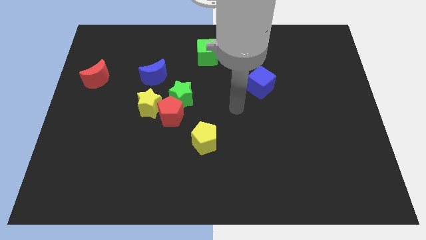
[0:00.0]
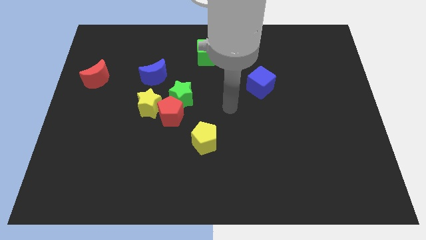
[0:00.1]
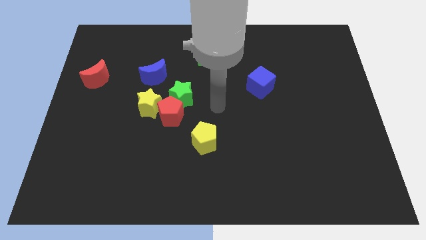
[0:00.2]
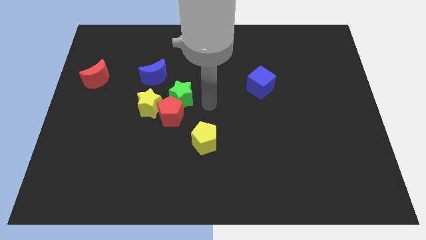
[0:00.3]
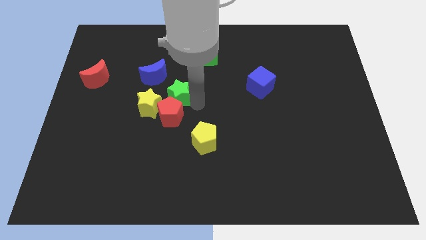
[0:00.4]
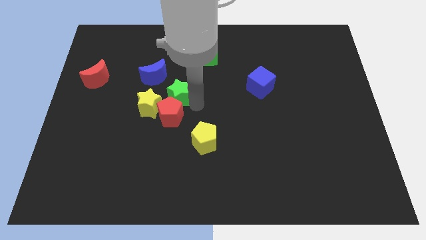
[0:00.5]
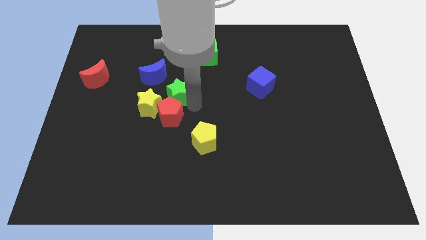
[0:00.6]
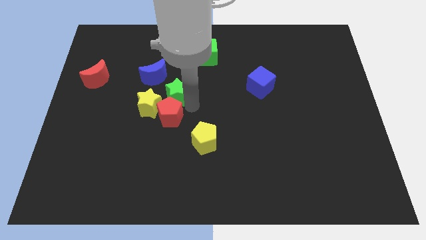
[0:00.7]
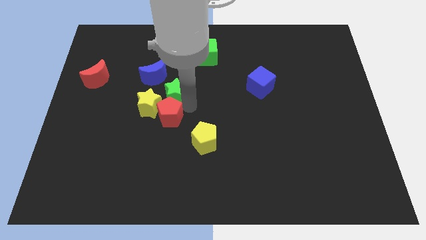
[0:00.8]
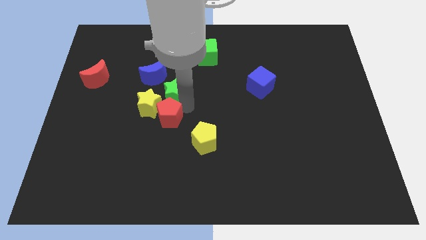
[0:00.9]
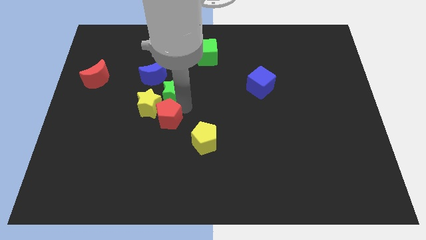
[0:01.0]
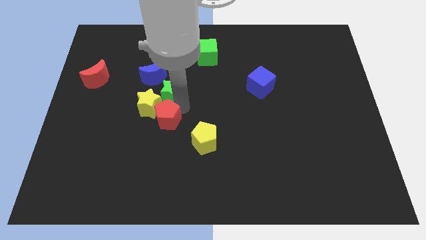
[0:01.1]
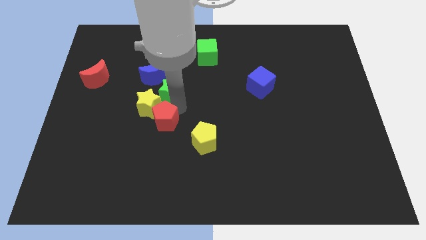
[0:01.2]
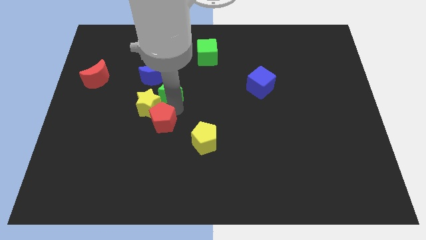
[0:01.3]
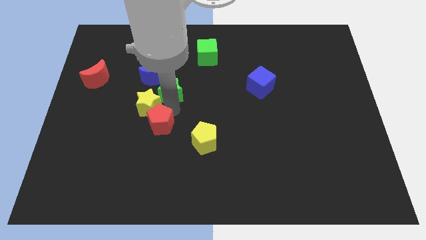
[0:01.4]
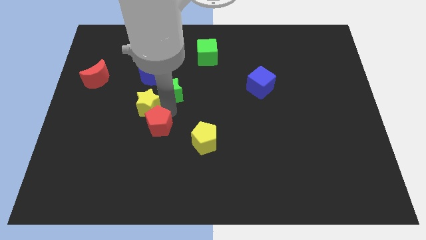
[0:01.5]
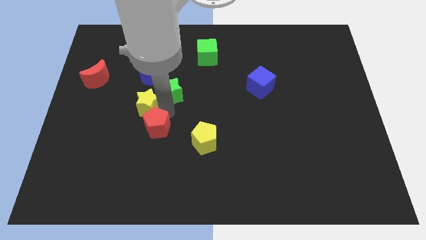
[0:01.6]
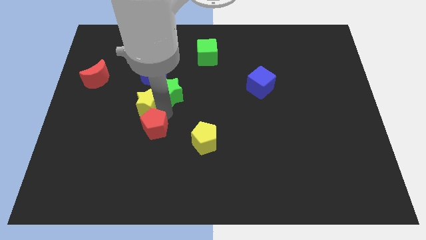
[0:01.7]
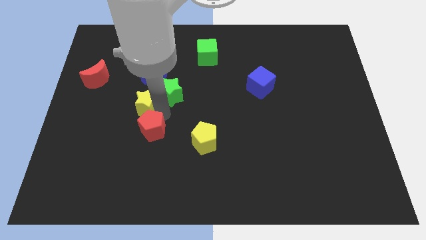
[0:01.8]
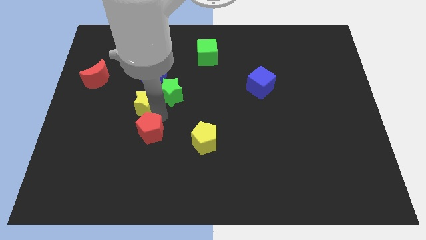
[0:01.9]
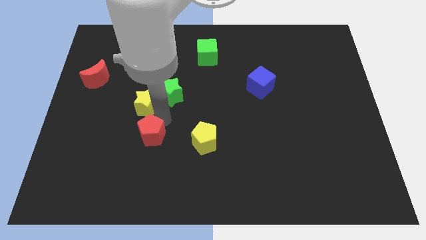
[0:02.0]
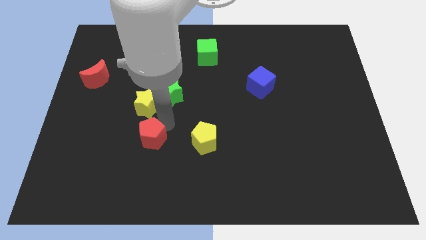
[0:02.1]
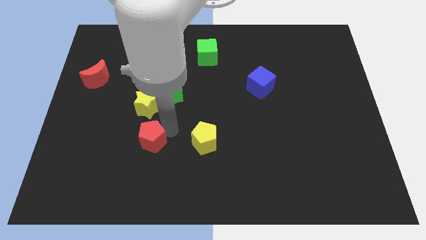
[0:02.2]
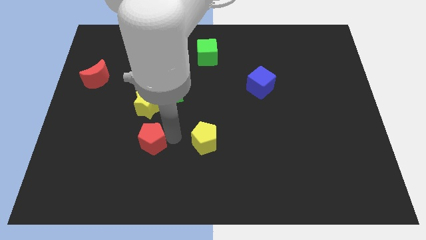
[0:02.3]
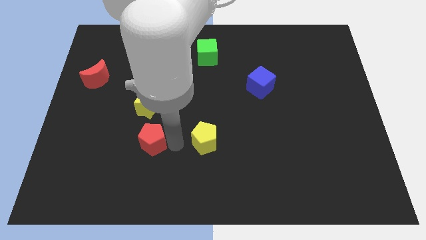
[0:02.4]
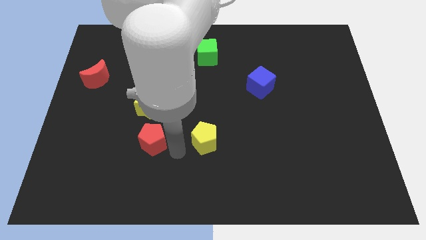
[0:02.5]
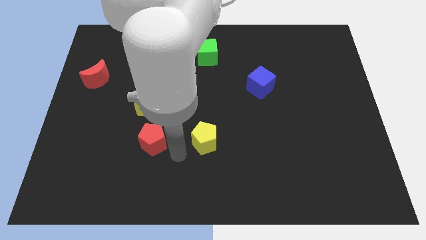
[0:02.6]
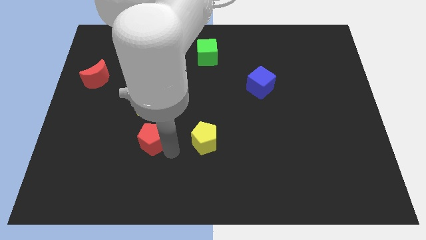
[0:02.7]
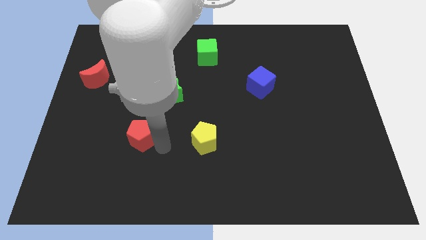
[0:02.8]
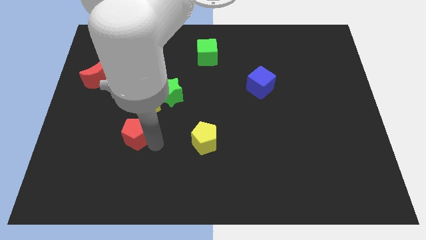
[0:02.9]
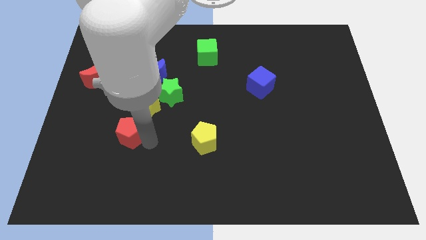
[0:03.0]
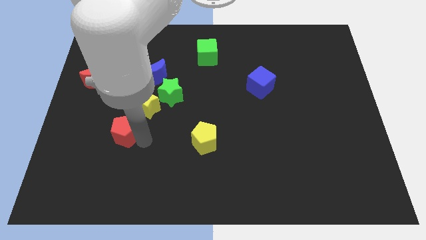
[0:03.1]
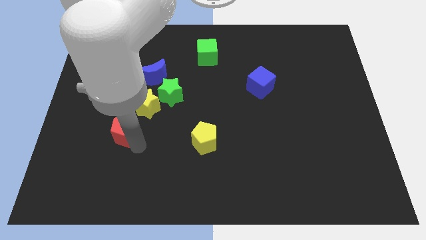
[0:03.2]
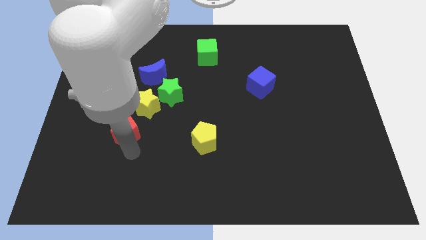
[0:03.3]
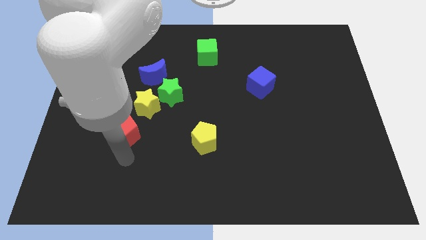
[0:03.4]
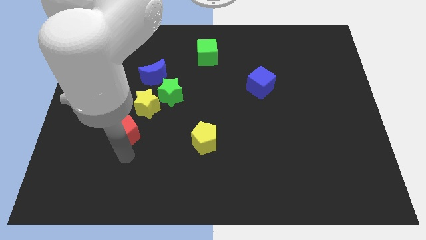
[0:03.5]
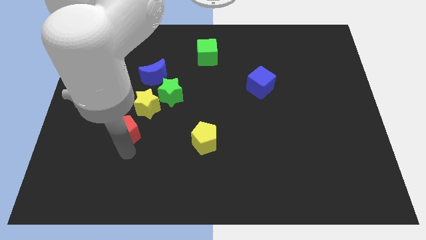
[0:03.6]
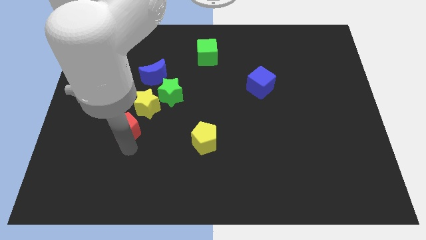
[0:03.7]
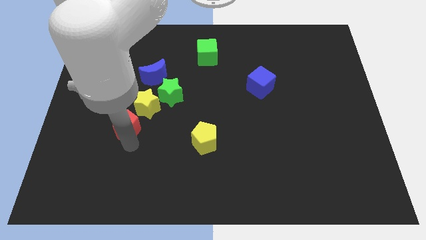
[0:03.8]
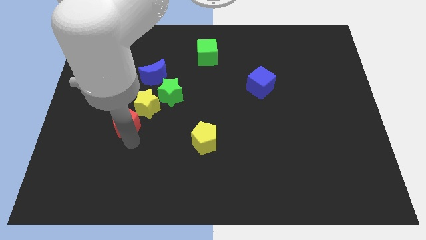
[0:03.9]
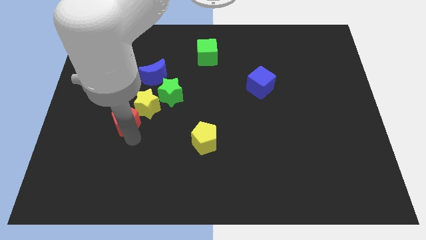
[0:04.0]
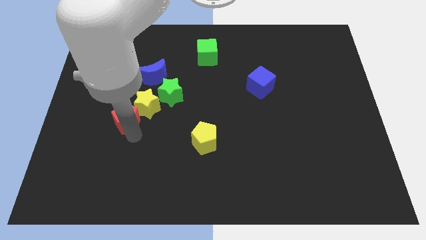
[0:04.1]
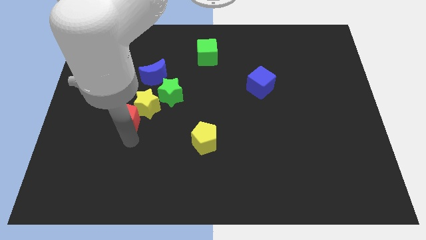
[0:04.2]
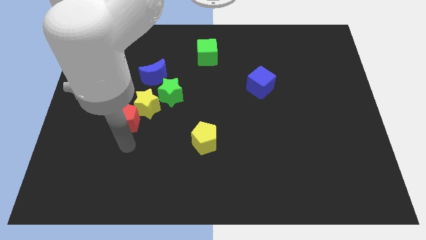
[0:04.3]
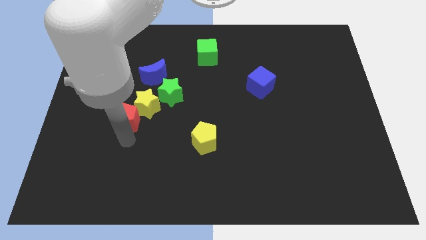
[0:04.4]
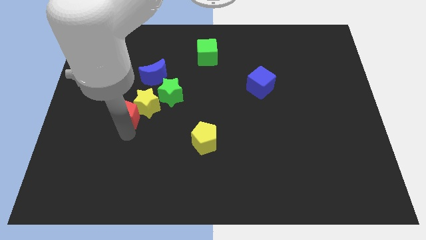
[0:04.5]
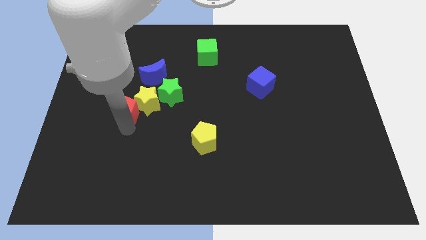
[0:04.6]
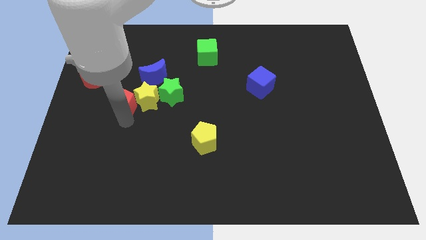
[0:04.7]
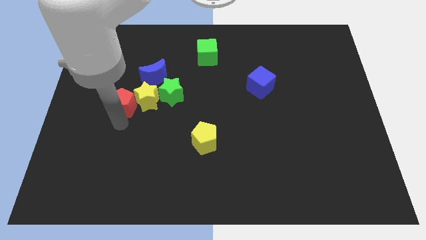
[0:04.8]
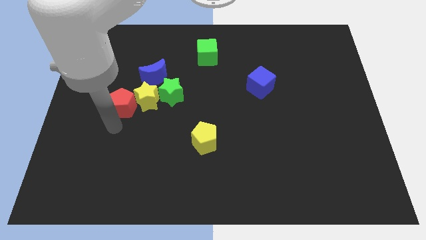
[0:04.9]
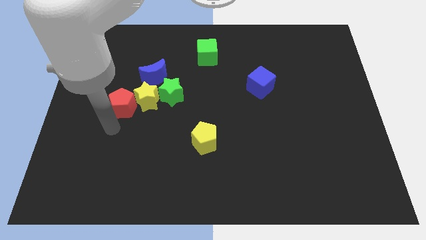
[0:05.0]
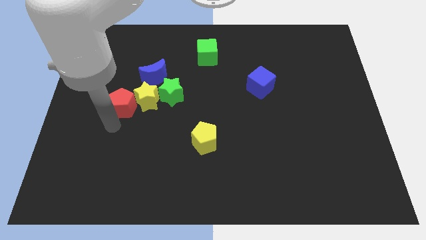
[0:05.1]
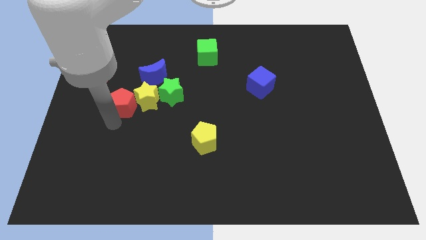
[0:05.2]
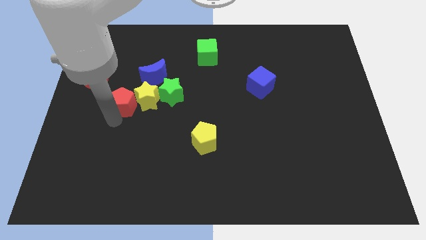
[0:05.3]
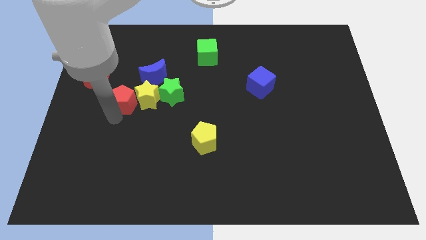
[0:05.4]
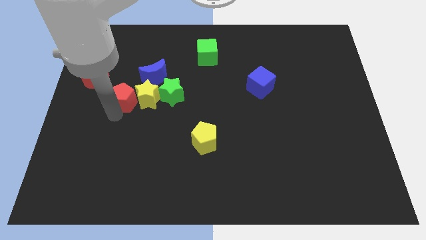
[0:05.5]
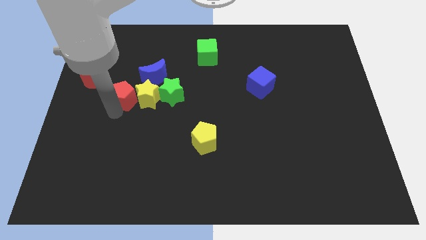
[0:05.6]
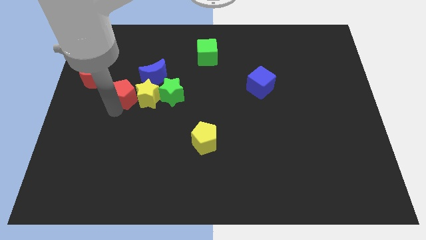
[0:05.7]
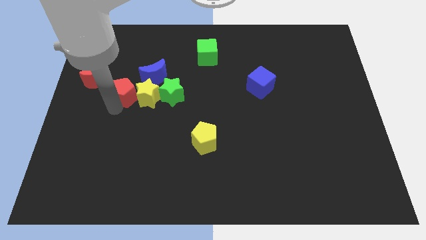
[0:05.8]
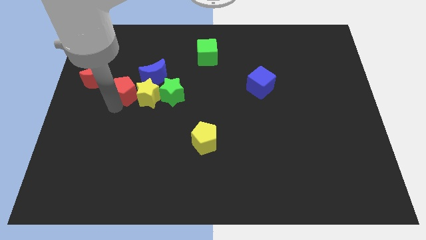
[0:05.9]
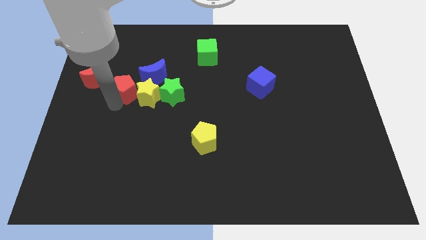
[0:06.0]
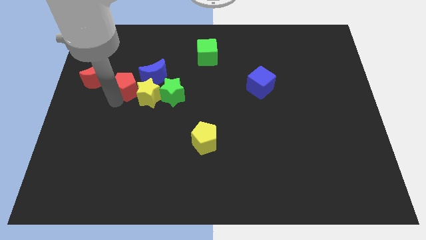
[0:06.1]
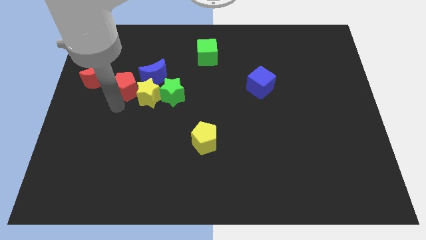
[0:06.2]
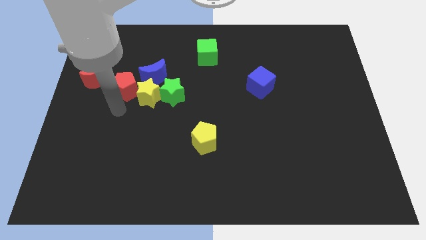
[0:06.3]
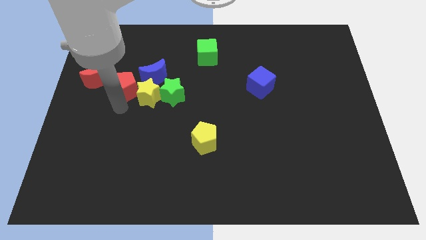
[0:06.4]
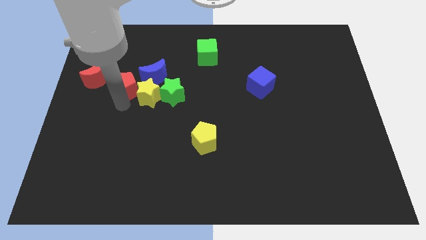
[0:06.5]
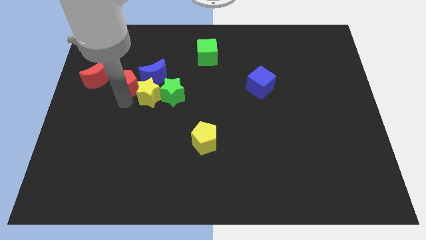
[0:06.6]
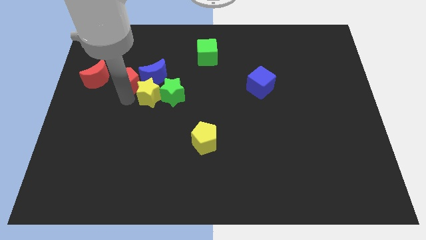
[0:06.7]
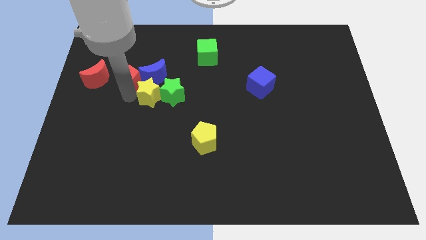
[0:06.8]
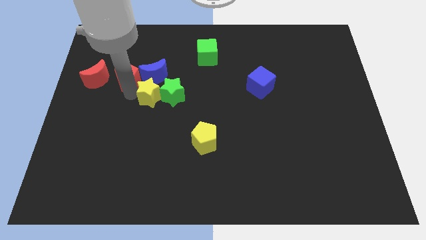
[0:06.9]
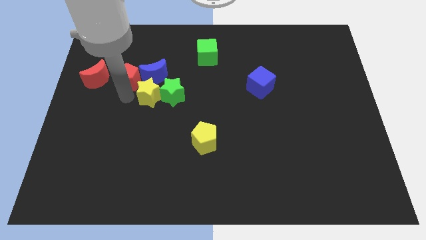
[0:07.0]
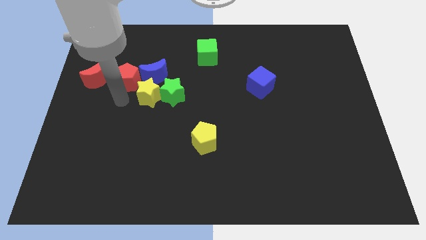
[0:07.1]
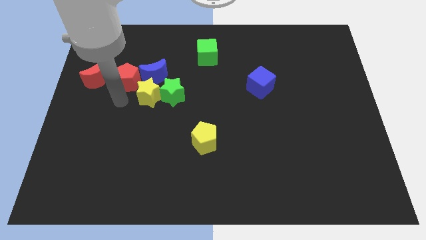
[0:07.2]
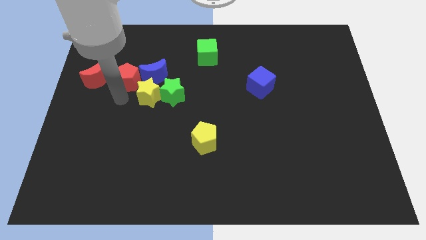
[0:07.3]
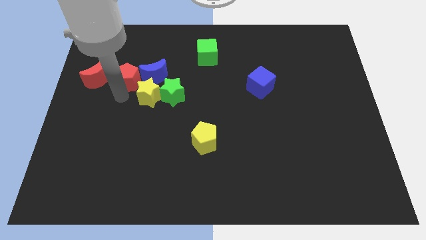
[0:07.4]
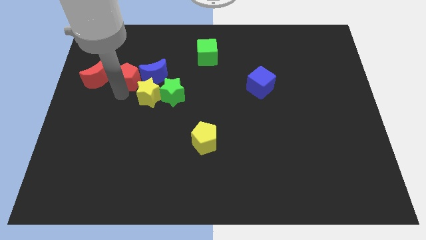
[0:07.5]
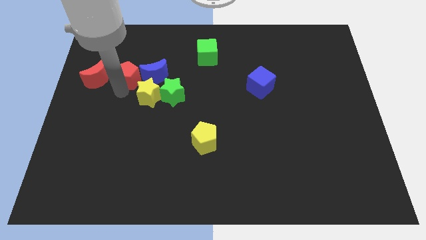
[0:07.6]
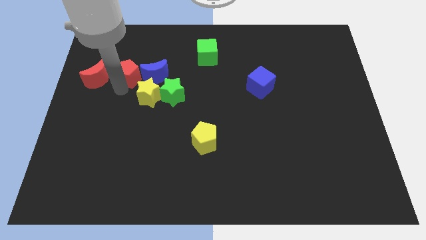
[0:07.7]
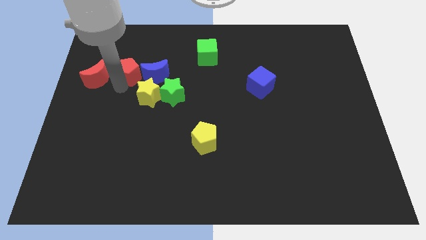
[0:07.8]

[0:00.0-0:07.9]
move the red pentagon to the top left of the blue moon
